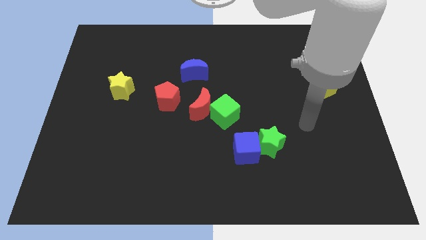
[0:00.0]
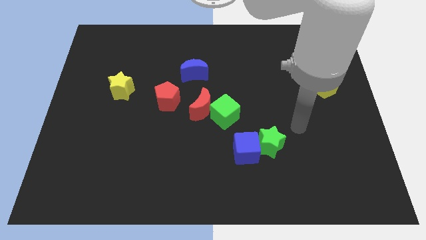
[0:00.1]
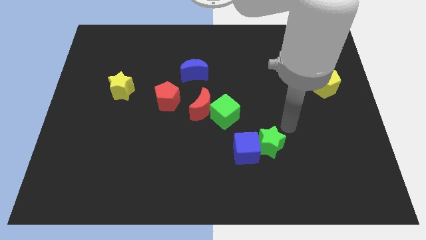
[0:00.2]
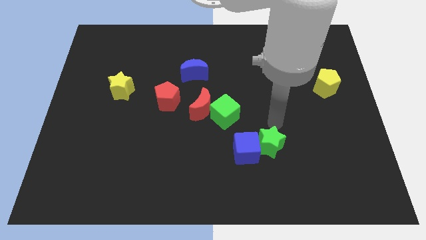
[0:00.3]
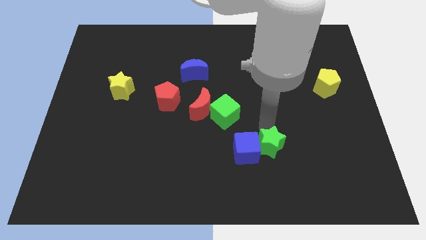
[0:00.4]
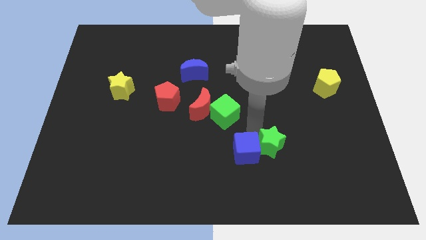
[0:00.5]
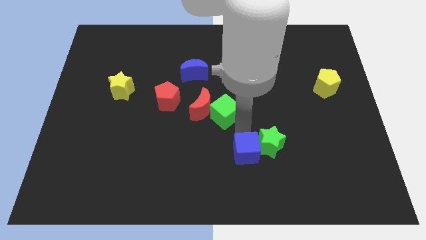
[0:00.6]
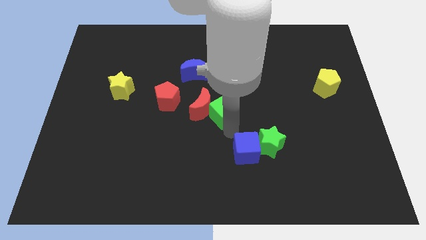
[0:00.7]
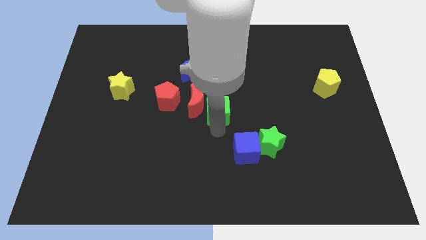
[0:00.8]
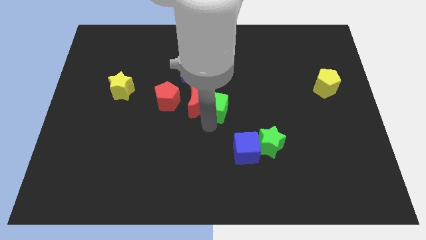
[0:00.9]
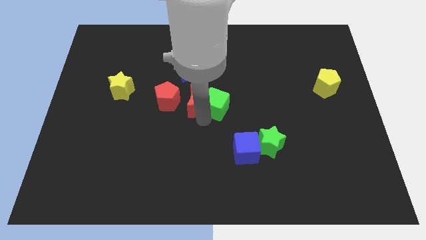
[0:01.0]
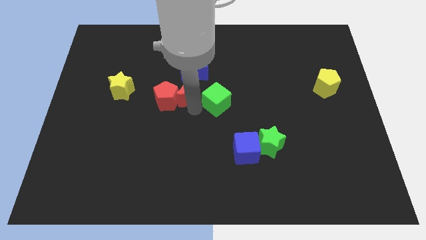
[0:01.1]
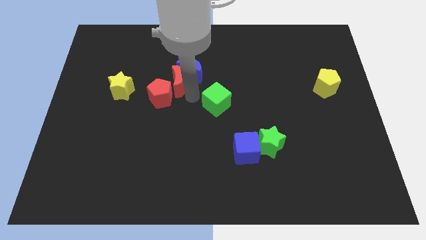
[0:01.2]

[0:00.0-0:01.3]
separate the green cube from the red moon

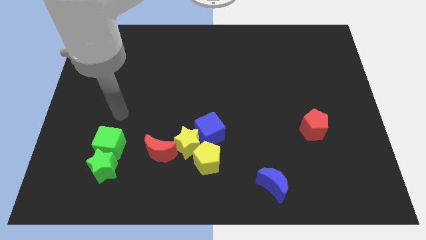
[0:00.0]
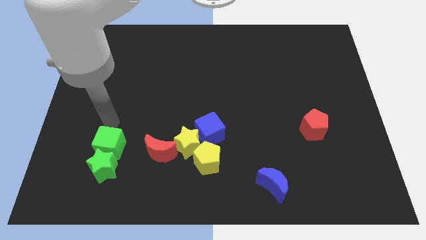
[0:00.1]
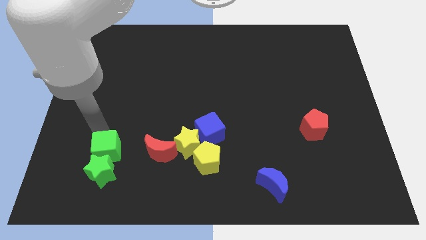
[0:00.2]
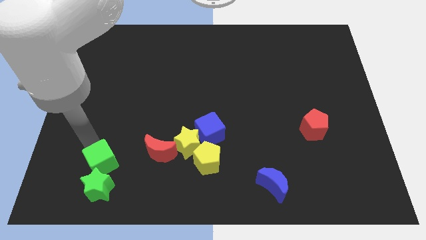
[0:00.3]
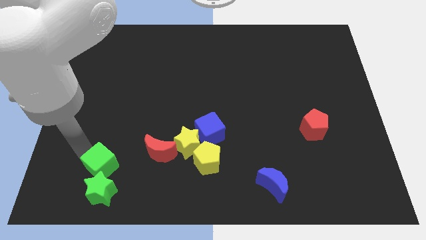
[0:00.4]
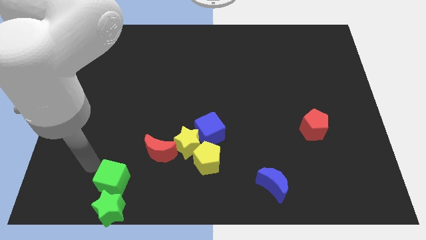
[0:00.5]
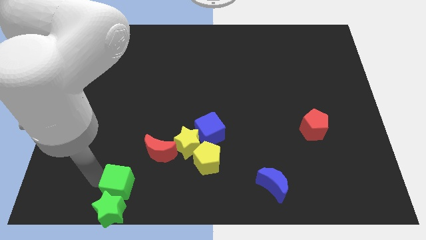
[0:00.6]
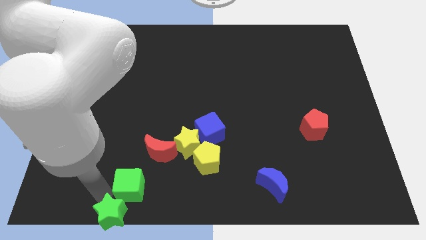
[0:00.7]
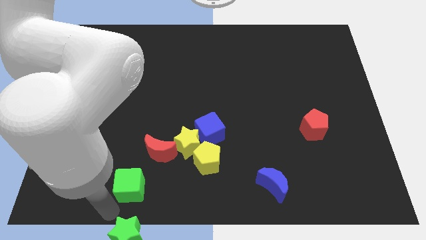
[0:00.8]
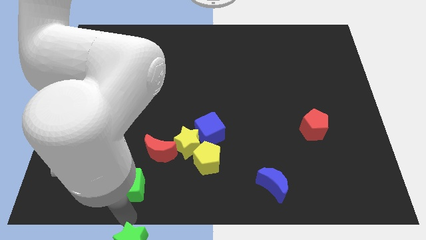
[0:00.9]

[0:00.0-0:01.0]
move the green cube away from the green star

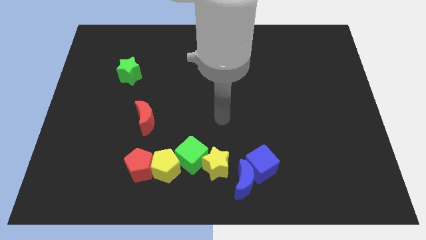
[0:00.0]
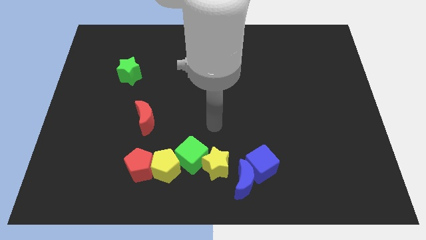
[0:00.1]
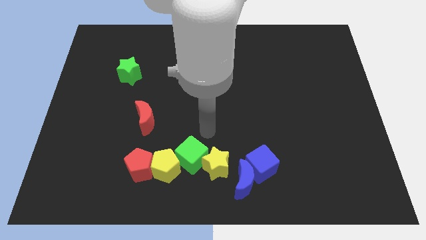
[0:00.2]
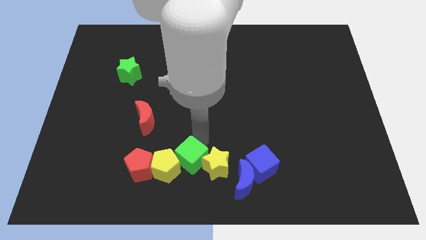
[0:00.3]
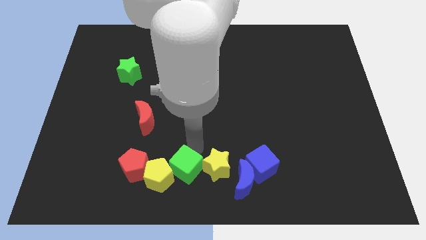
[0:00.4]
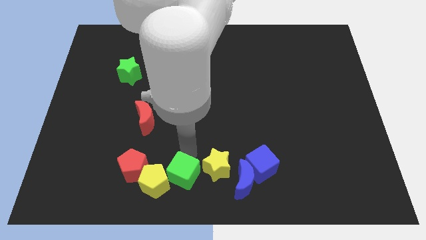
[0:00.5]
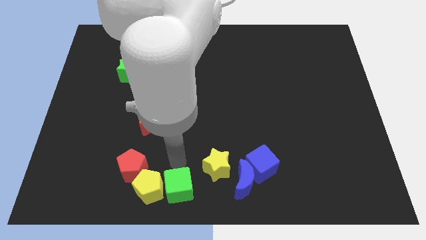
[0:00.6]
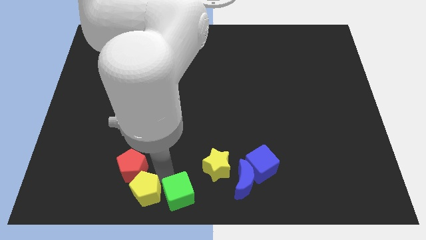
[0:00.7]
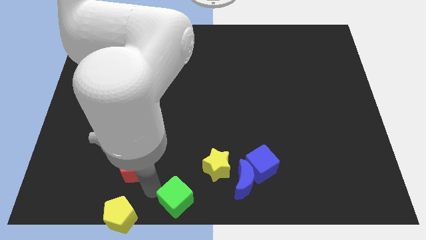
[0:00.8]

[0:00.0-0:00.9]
separate the red pentagon from the yellow pentagon

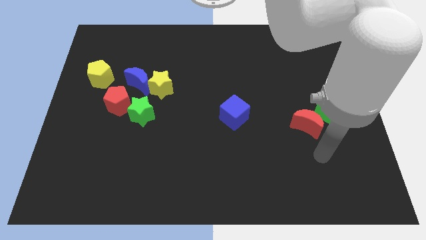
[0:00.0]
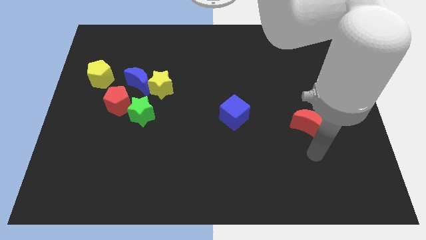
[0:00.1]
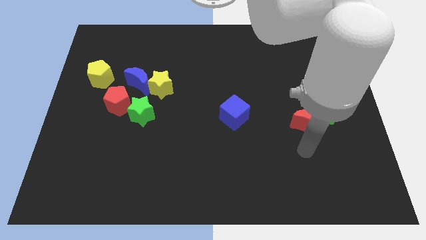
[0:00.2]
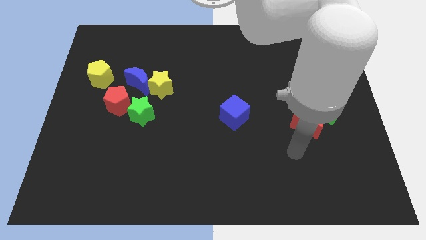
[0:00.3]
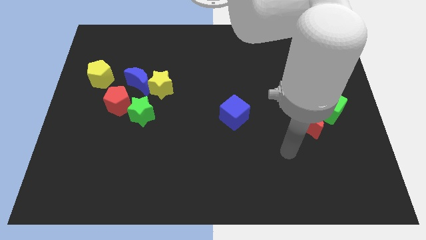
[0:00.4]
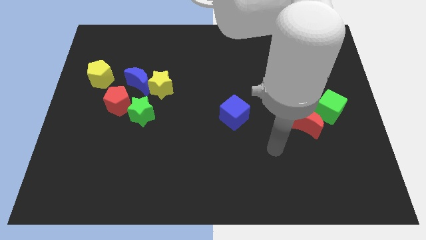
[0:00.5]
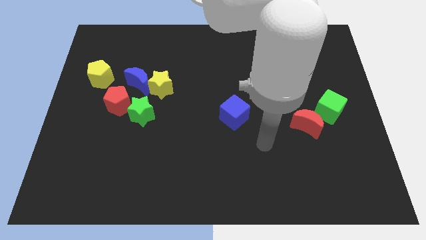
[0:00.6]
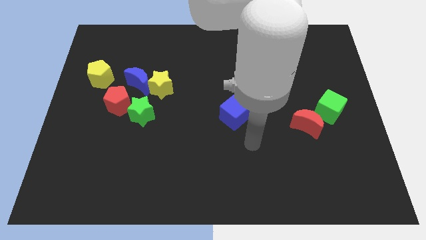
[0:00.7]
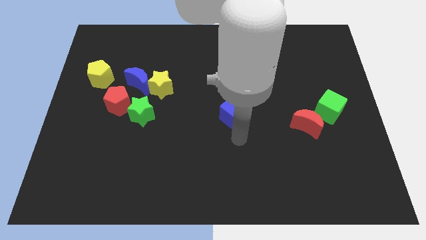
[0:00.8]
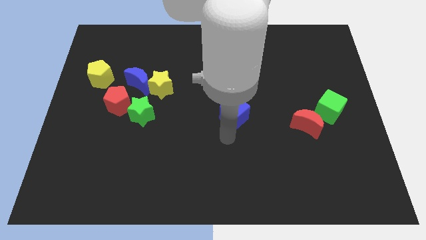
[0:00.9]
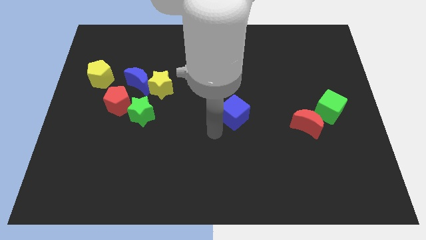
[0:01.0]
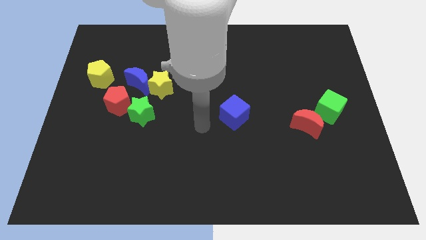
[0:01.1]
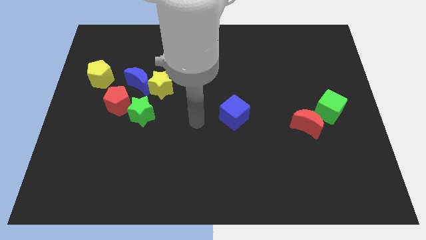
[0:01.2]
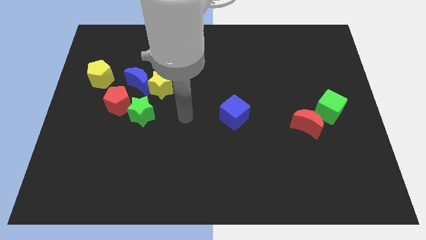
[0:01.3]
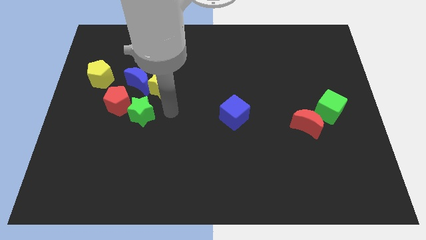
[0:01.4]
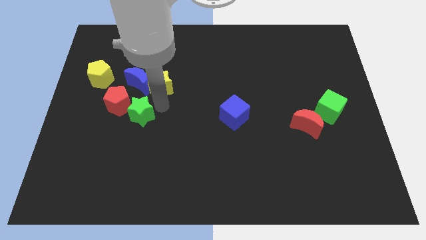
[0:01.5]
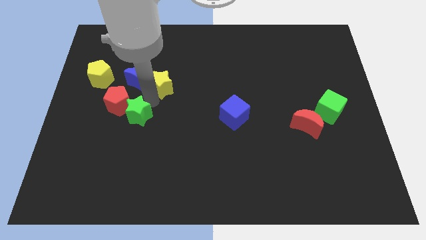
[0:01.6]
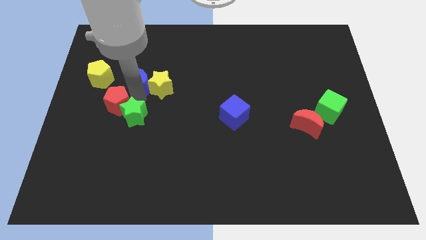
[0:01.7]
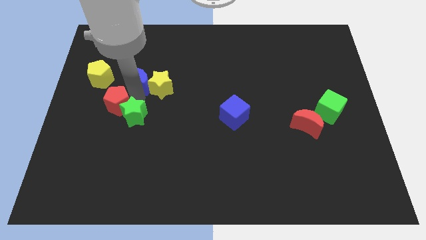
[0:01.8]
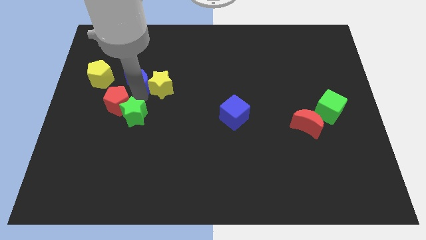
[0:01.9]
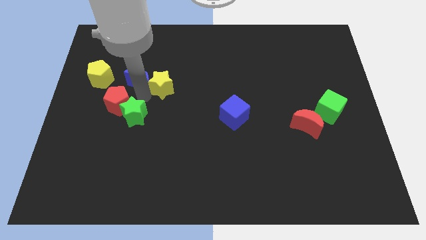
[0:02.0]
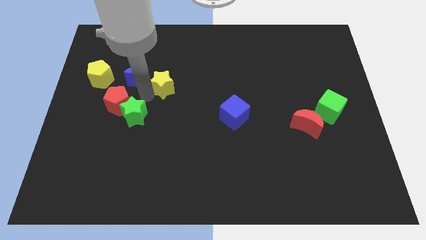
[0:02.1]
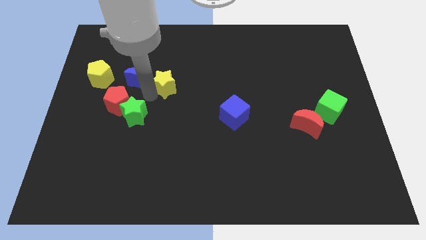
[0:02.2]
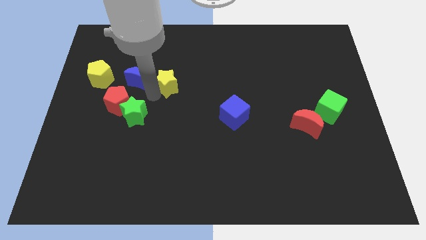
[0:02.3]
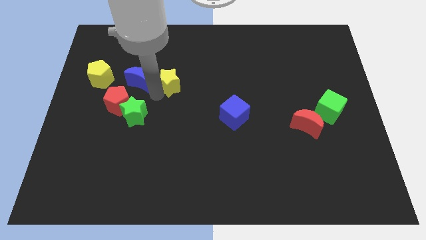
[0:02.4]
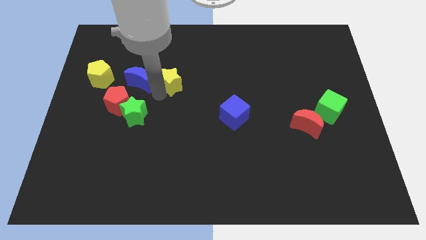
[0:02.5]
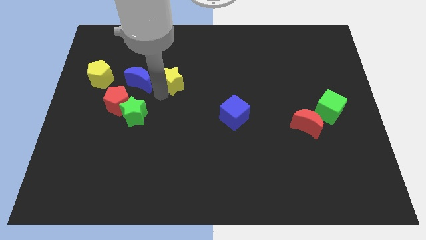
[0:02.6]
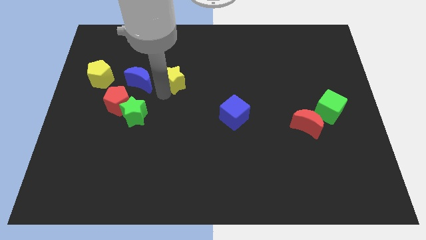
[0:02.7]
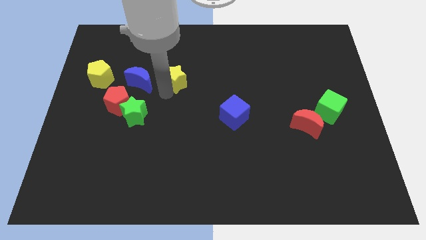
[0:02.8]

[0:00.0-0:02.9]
separate the yellow star from the blue moon and green star

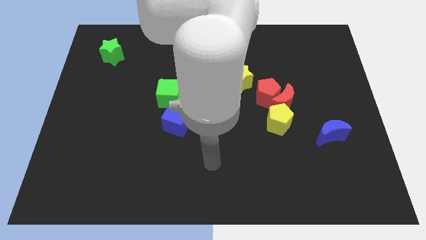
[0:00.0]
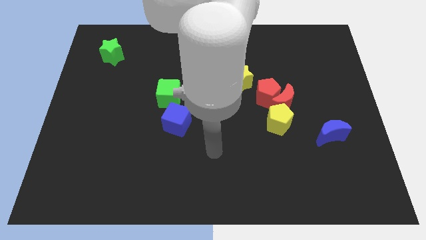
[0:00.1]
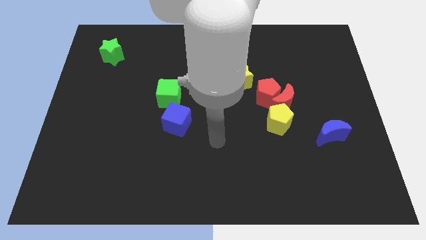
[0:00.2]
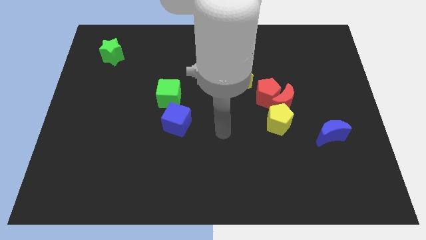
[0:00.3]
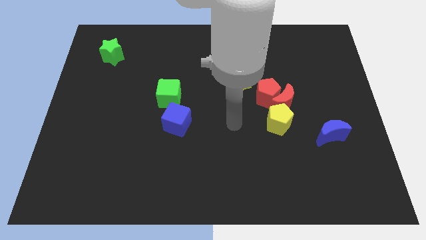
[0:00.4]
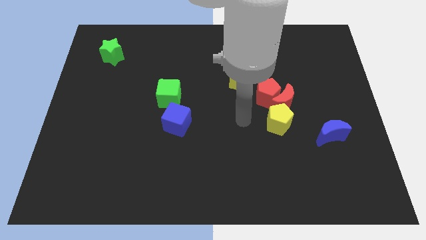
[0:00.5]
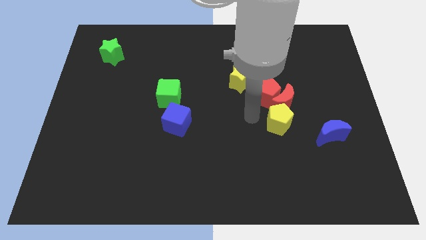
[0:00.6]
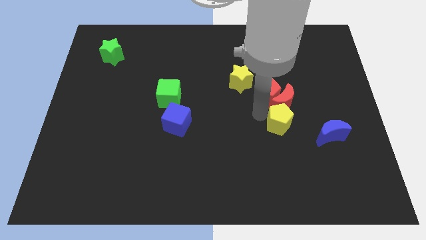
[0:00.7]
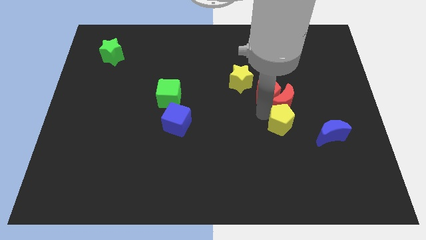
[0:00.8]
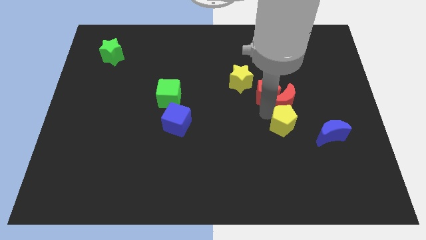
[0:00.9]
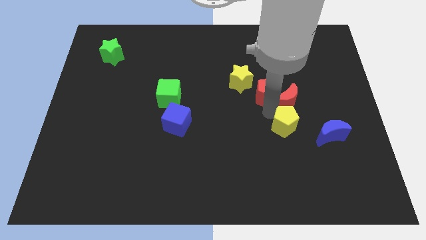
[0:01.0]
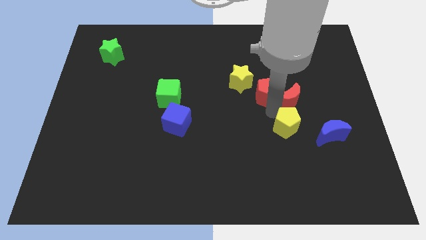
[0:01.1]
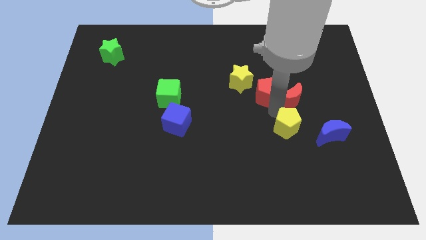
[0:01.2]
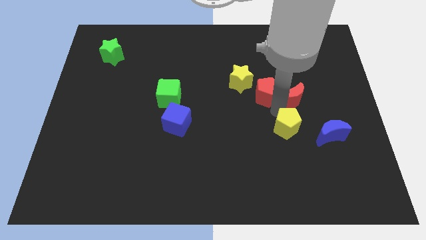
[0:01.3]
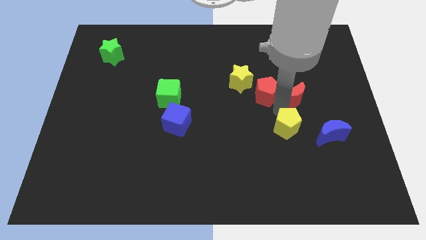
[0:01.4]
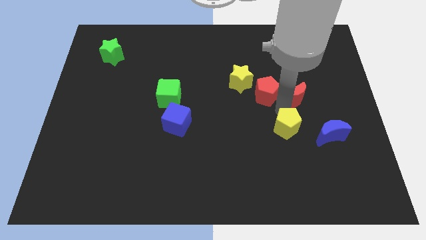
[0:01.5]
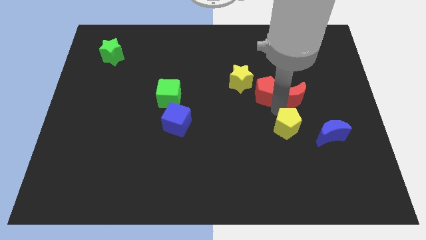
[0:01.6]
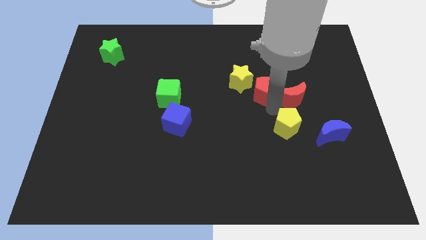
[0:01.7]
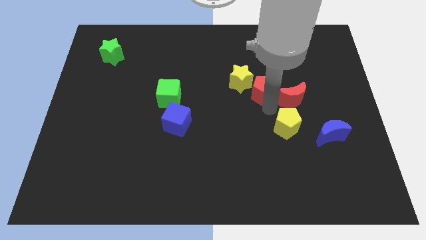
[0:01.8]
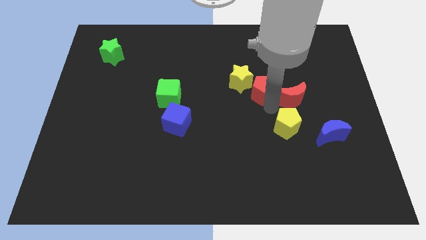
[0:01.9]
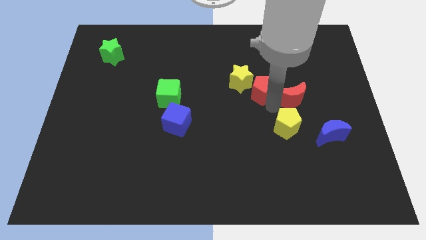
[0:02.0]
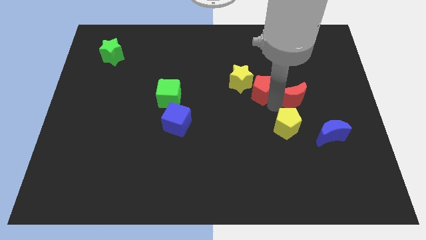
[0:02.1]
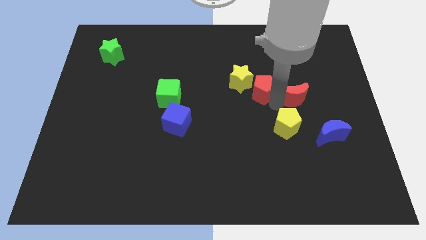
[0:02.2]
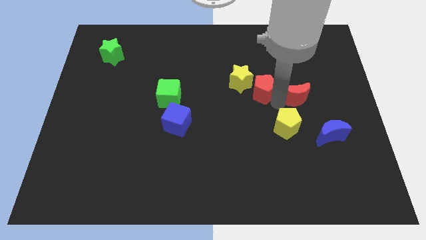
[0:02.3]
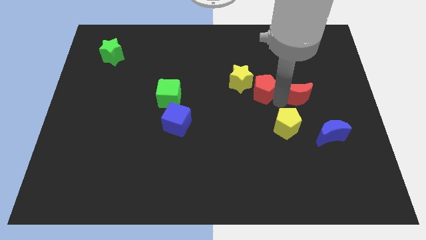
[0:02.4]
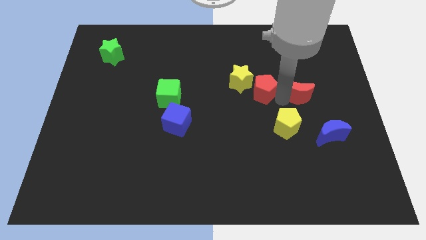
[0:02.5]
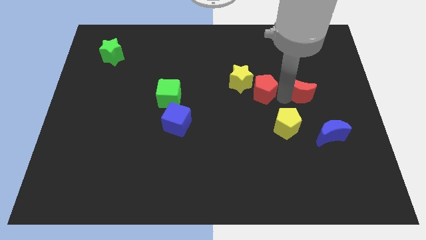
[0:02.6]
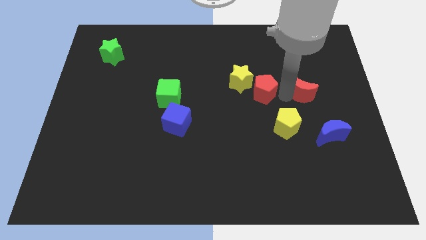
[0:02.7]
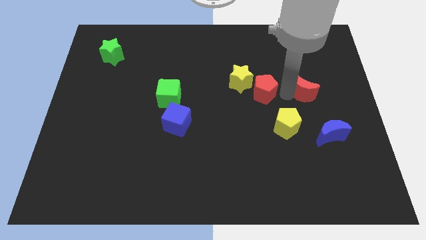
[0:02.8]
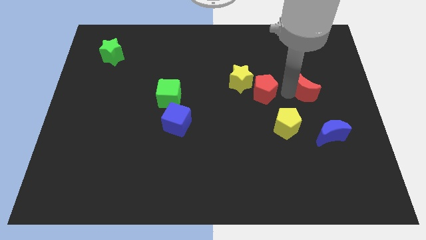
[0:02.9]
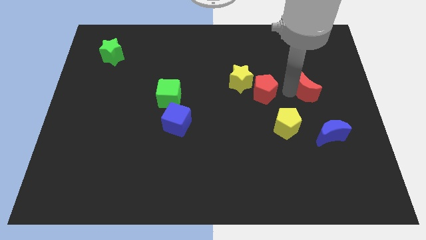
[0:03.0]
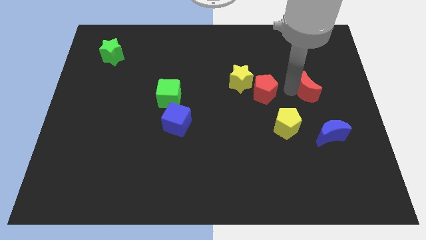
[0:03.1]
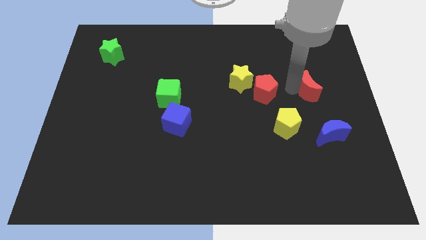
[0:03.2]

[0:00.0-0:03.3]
pull the red moon apart from the red pentagon and yellow pentagon
